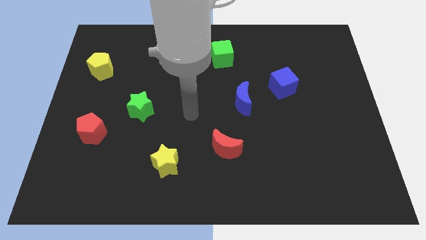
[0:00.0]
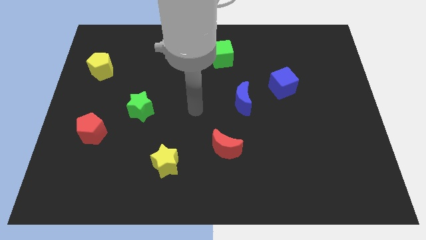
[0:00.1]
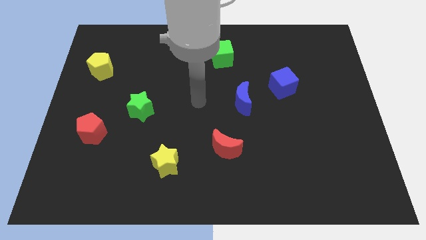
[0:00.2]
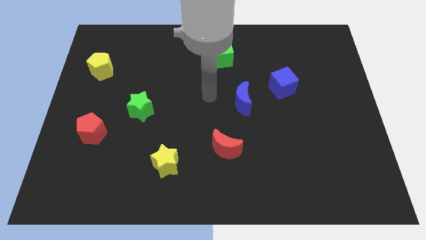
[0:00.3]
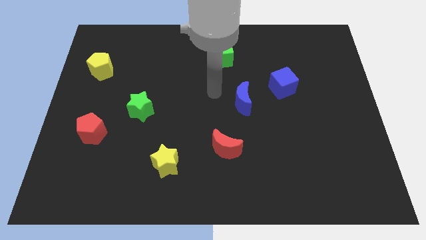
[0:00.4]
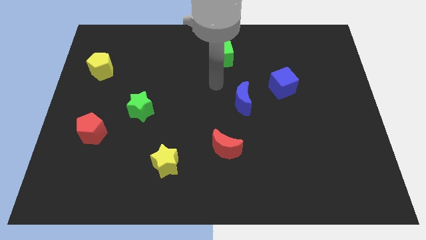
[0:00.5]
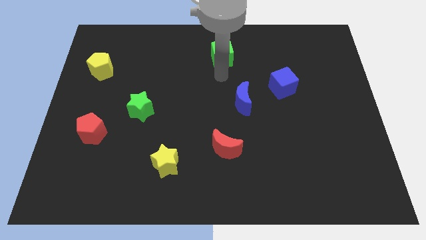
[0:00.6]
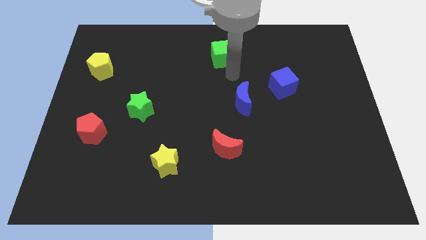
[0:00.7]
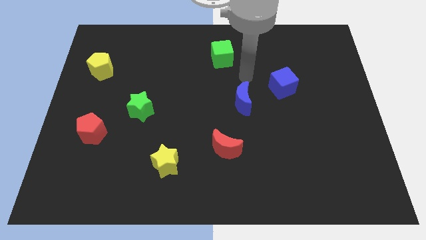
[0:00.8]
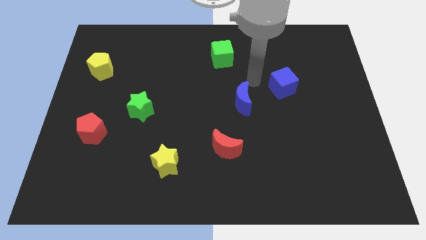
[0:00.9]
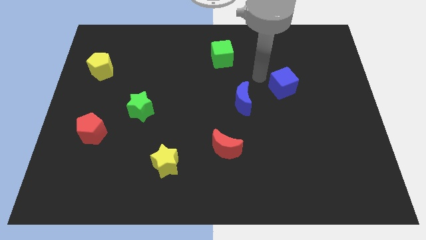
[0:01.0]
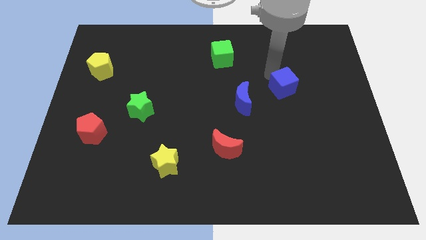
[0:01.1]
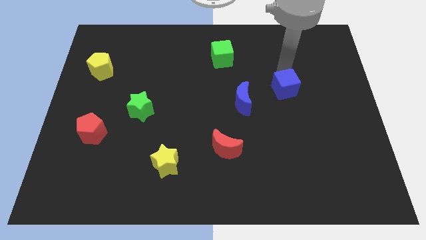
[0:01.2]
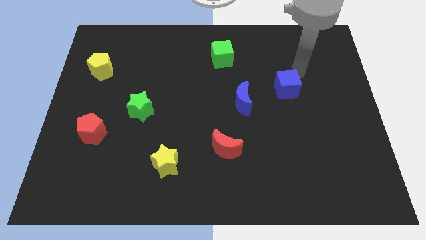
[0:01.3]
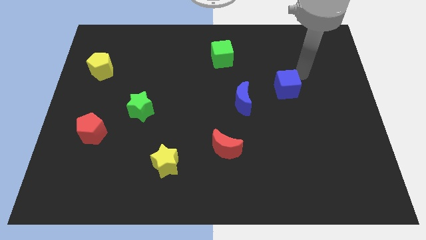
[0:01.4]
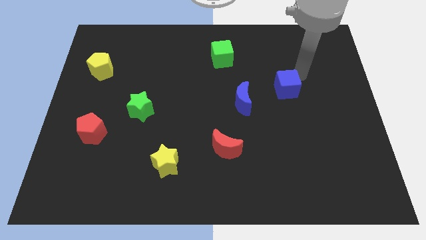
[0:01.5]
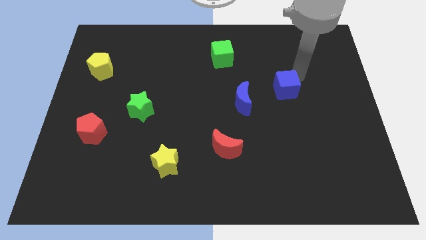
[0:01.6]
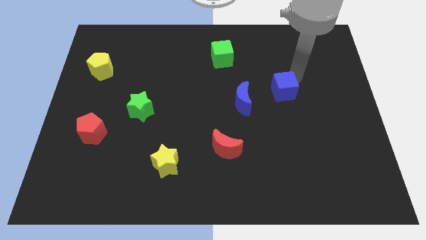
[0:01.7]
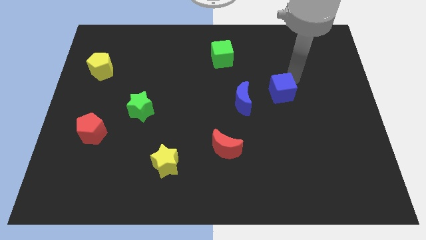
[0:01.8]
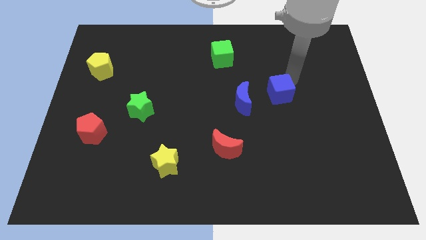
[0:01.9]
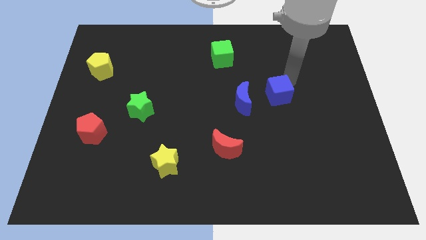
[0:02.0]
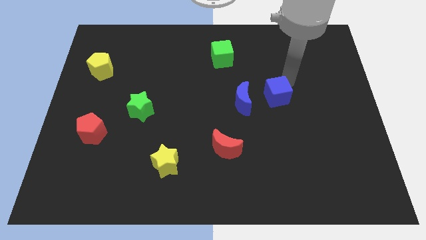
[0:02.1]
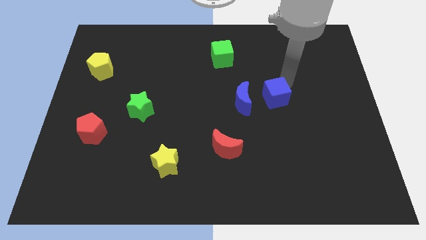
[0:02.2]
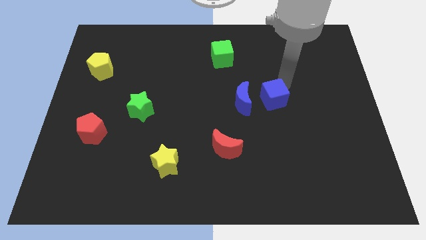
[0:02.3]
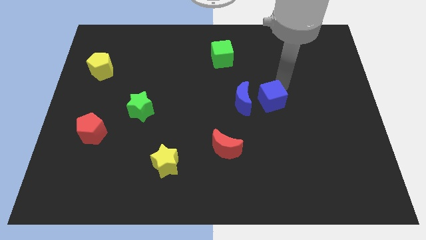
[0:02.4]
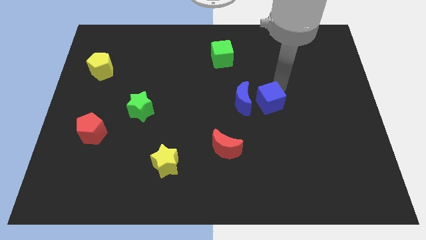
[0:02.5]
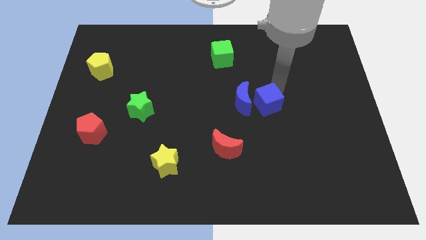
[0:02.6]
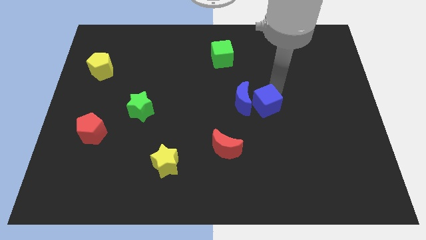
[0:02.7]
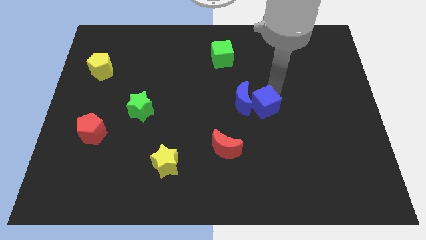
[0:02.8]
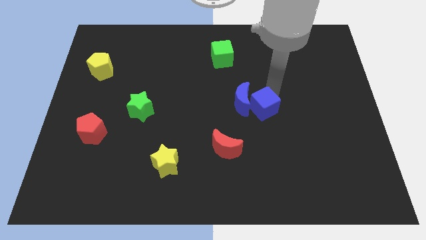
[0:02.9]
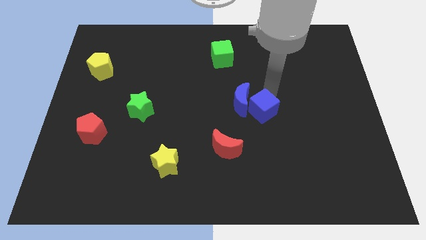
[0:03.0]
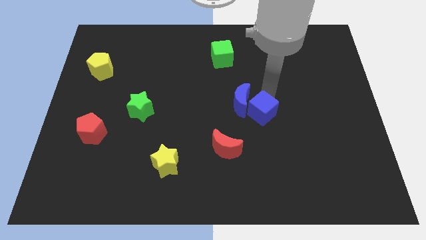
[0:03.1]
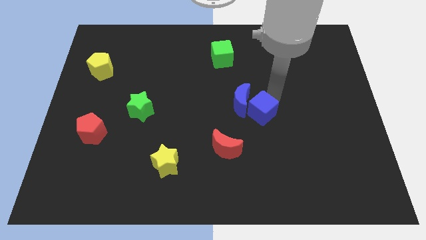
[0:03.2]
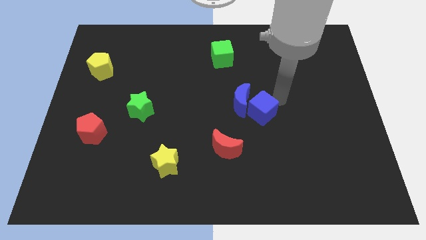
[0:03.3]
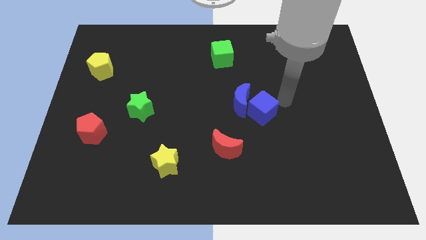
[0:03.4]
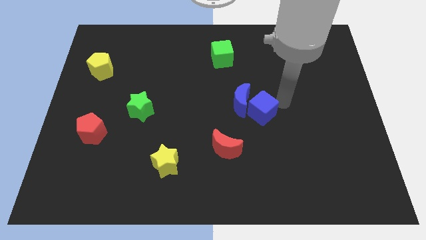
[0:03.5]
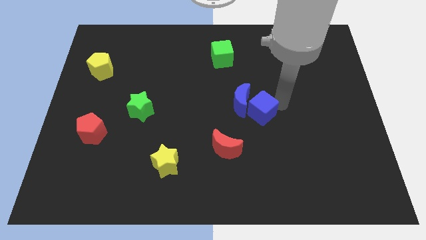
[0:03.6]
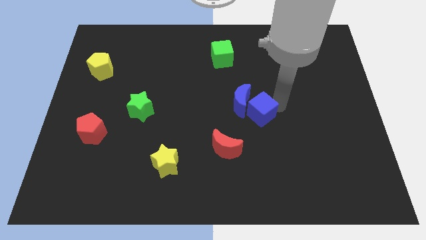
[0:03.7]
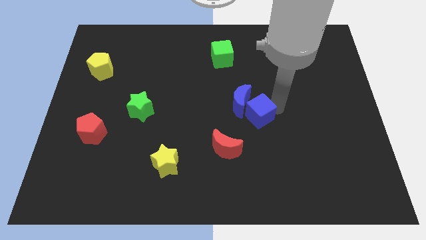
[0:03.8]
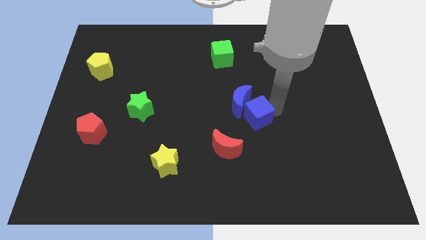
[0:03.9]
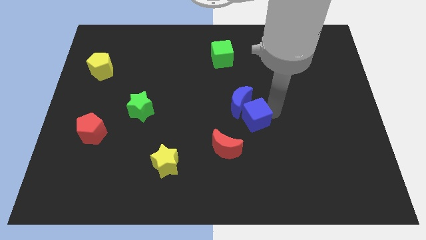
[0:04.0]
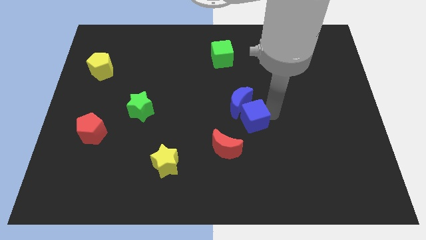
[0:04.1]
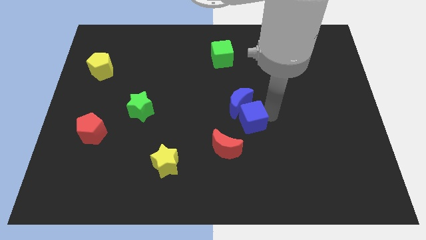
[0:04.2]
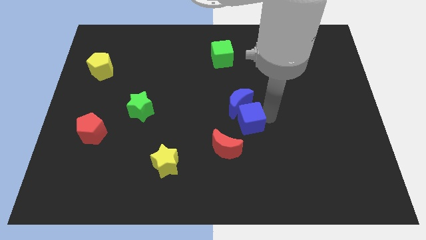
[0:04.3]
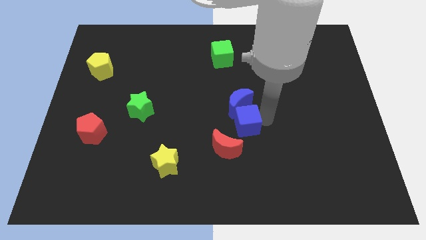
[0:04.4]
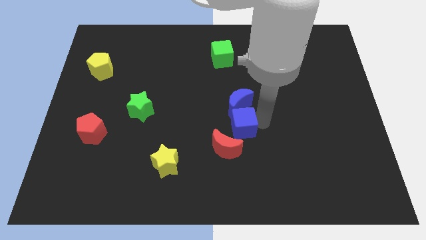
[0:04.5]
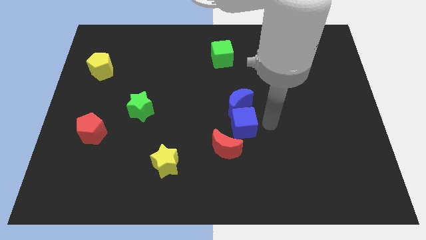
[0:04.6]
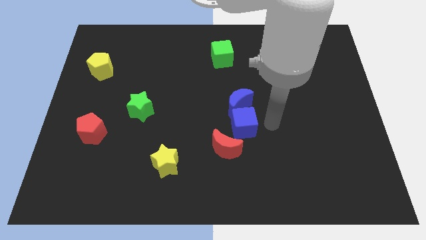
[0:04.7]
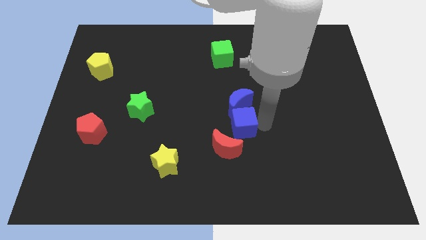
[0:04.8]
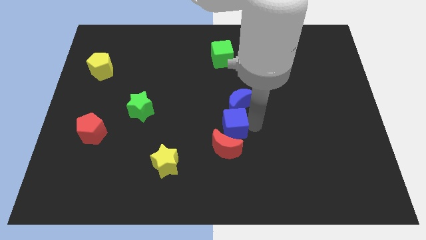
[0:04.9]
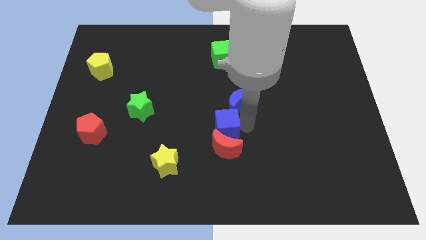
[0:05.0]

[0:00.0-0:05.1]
slide the blue cube to the top left side of the red moon

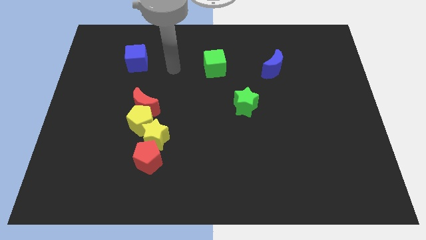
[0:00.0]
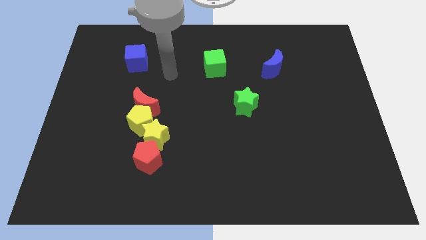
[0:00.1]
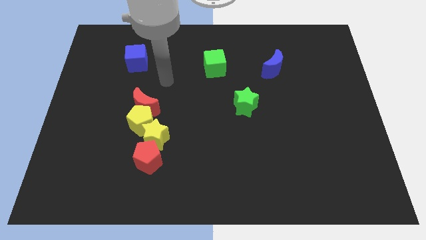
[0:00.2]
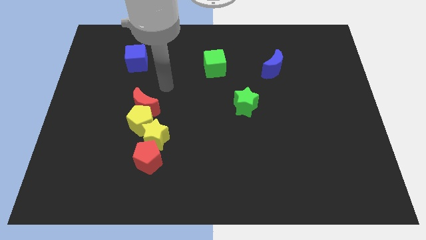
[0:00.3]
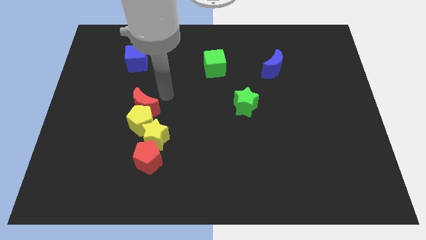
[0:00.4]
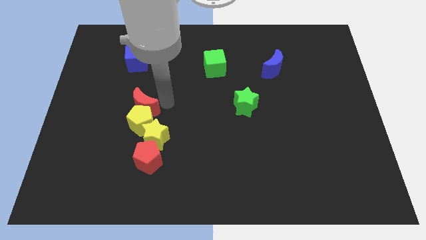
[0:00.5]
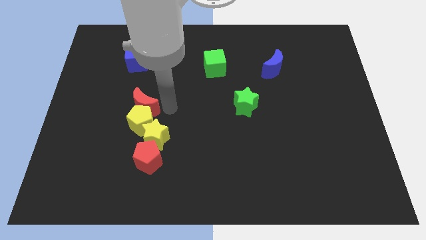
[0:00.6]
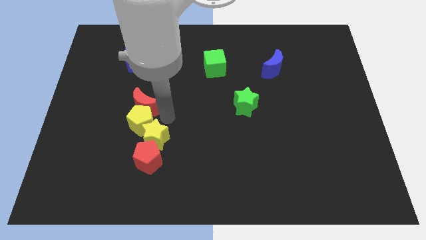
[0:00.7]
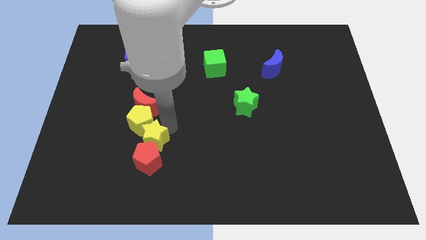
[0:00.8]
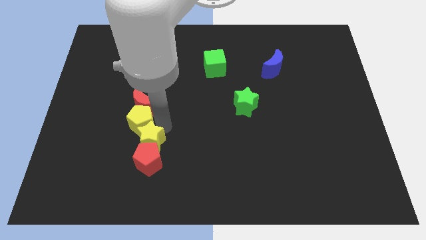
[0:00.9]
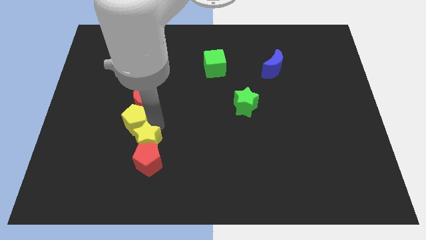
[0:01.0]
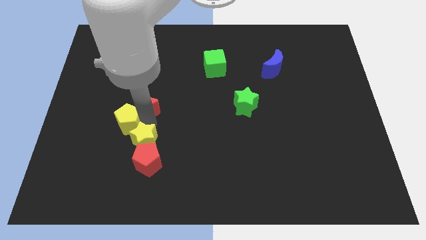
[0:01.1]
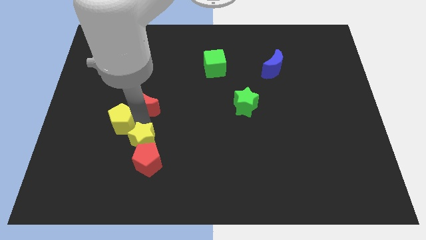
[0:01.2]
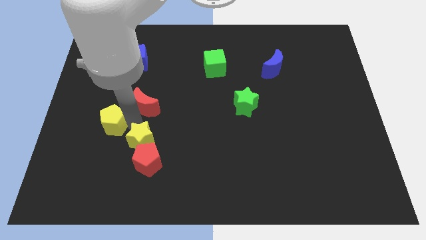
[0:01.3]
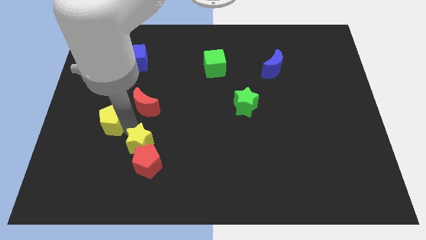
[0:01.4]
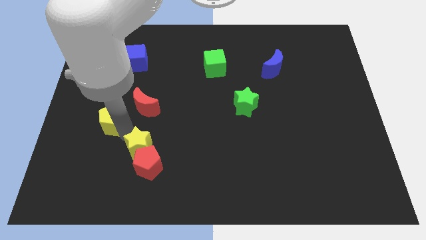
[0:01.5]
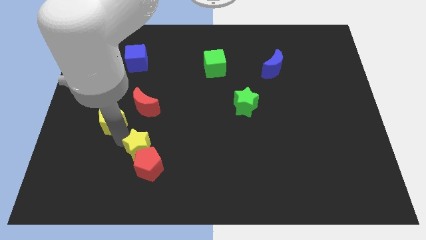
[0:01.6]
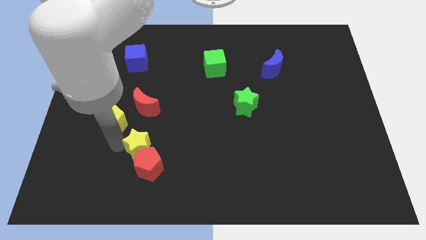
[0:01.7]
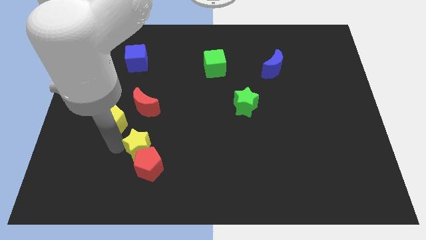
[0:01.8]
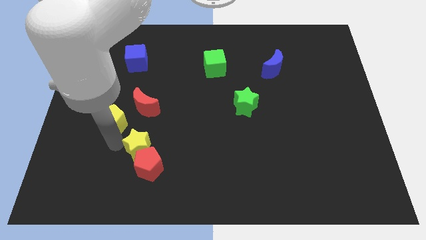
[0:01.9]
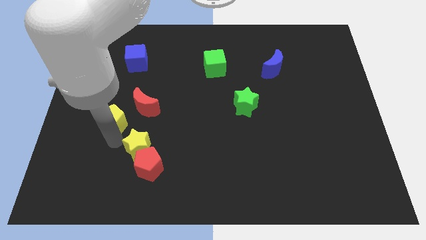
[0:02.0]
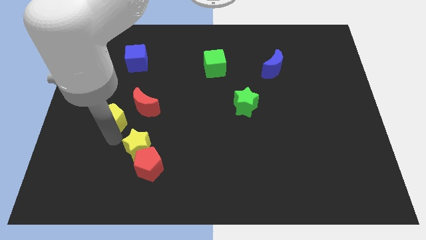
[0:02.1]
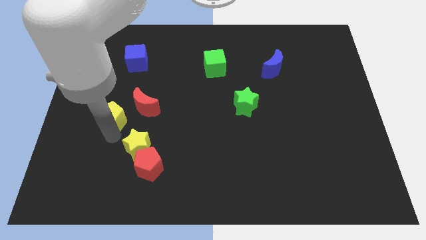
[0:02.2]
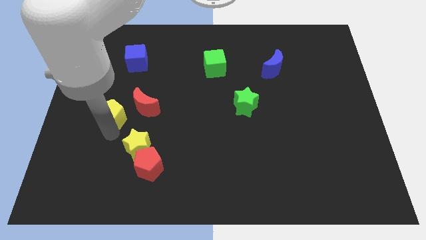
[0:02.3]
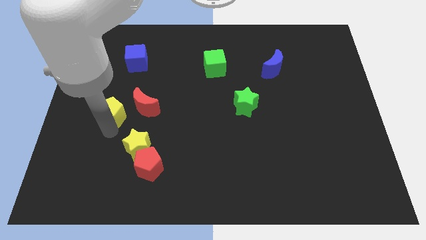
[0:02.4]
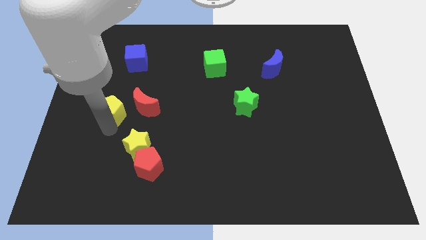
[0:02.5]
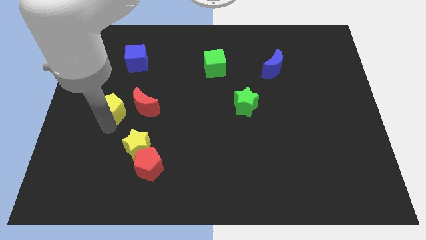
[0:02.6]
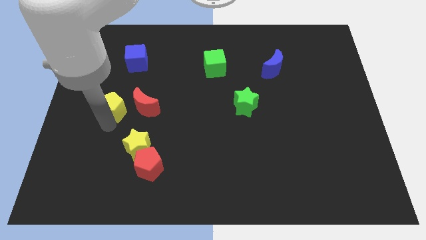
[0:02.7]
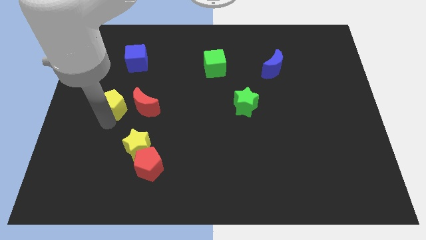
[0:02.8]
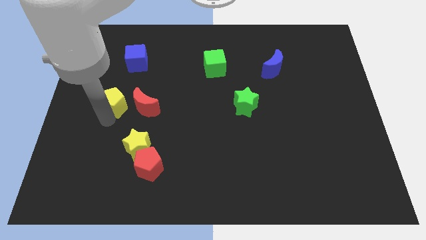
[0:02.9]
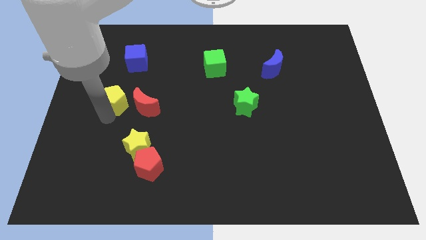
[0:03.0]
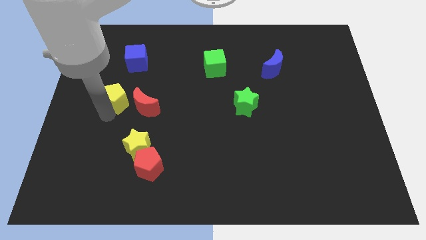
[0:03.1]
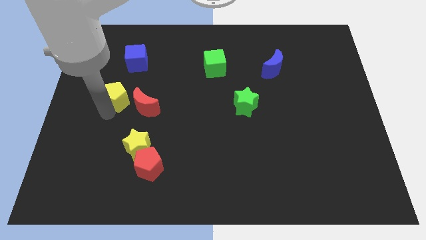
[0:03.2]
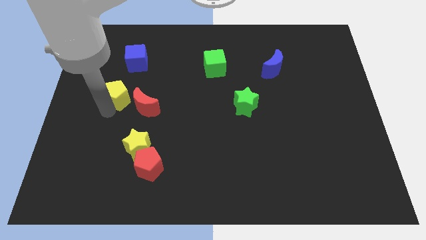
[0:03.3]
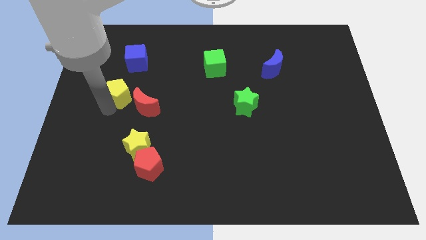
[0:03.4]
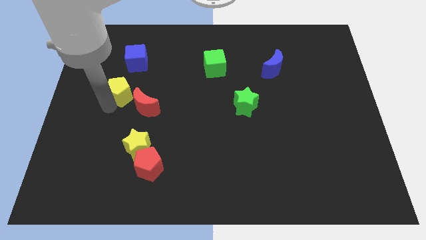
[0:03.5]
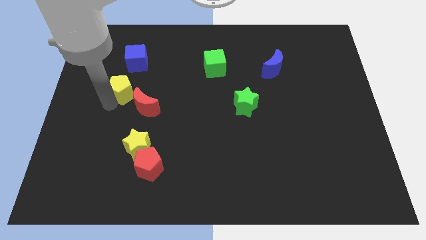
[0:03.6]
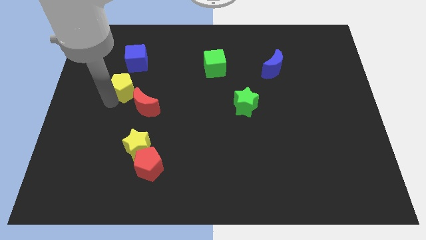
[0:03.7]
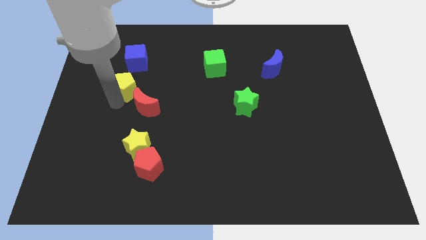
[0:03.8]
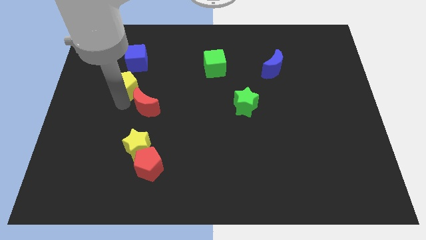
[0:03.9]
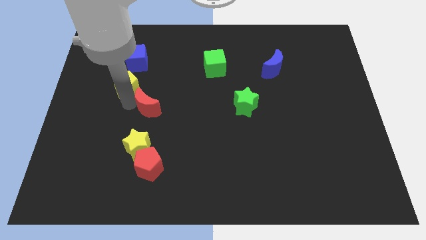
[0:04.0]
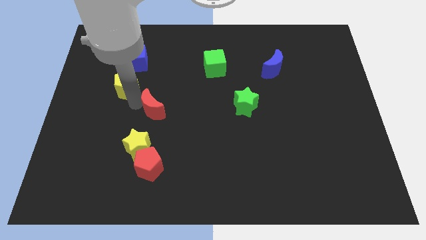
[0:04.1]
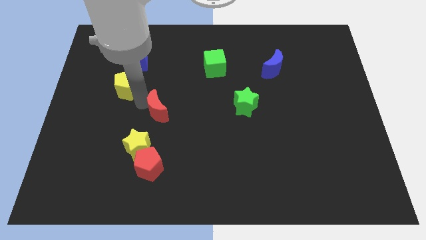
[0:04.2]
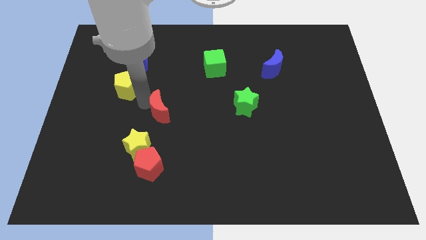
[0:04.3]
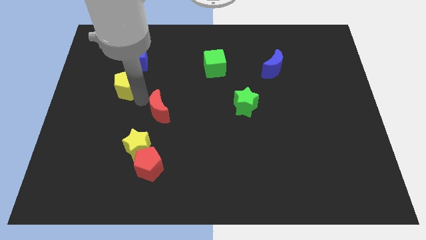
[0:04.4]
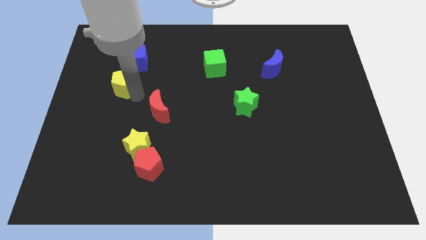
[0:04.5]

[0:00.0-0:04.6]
slide the yellow pentagon diagonally down and to the left of the blue cube
